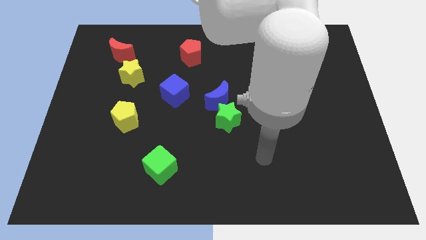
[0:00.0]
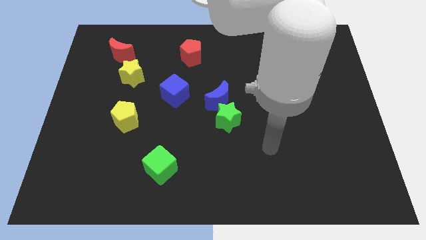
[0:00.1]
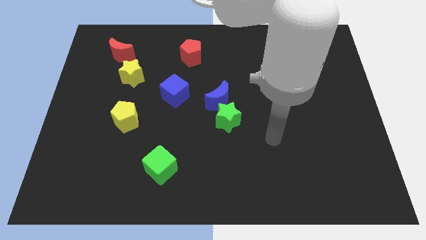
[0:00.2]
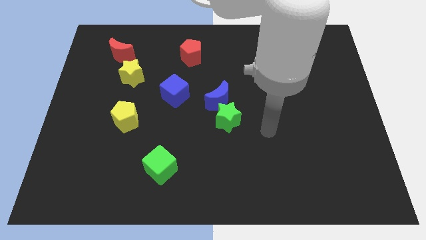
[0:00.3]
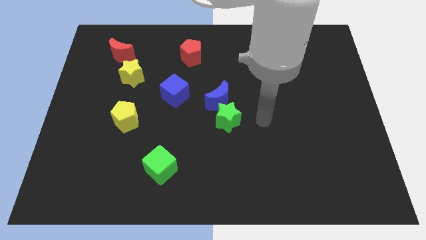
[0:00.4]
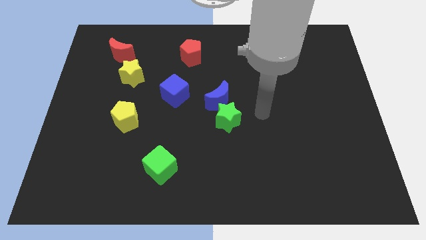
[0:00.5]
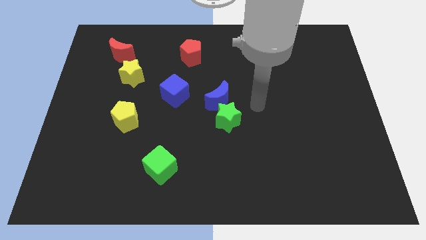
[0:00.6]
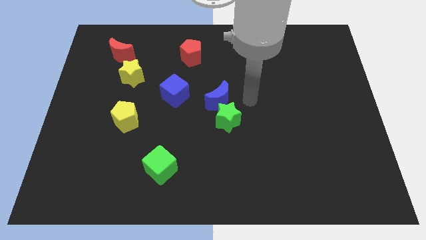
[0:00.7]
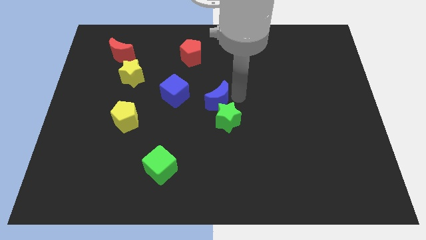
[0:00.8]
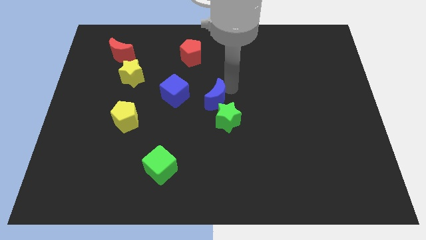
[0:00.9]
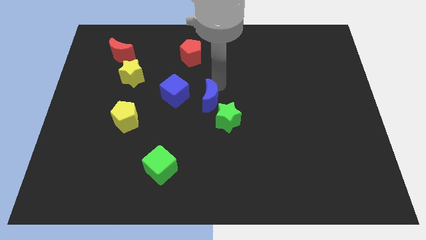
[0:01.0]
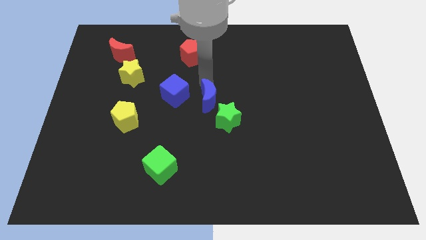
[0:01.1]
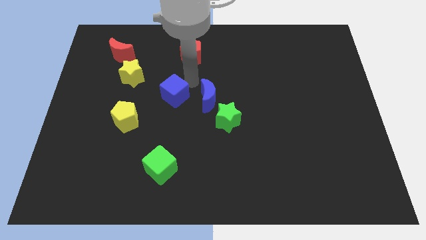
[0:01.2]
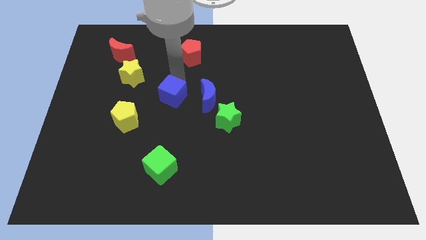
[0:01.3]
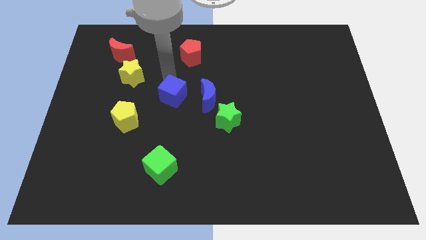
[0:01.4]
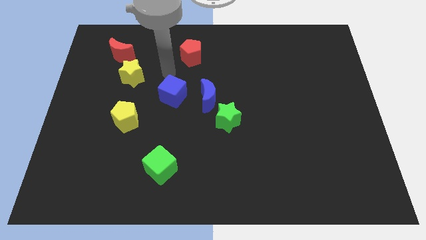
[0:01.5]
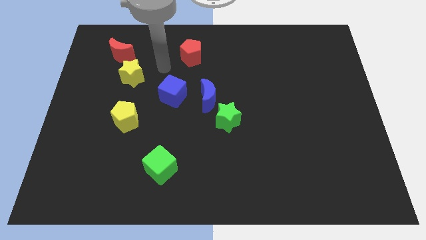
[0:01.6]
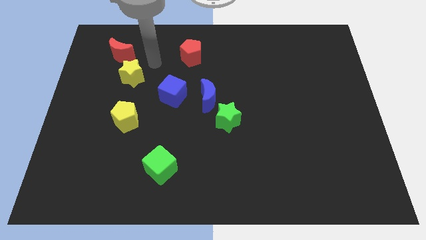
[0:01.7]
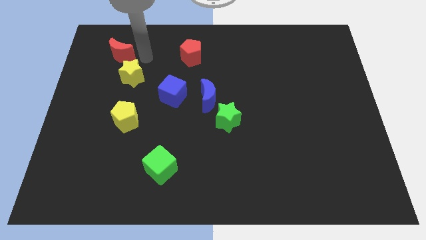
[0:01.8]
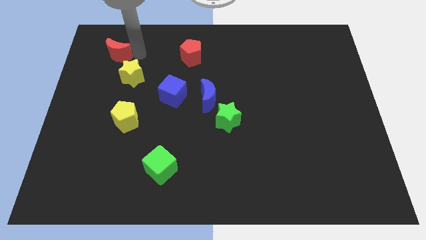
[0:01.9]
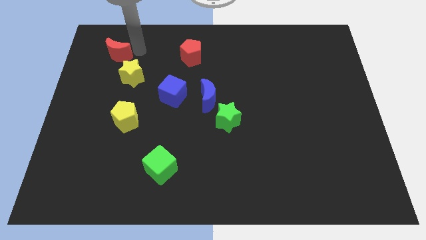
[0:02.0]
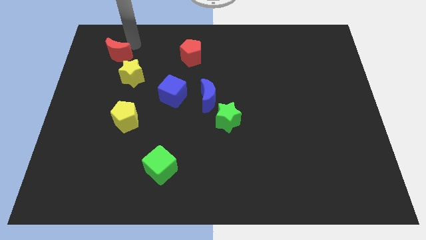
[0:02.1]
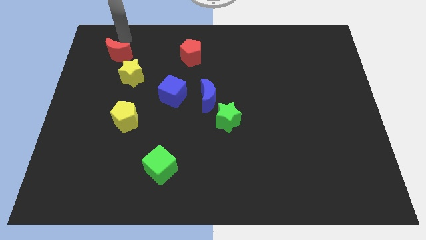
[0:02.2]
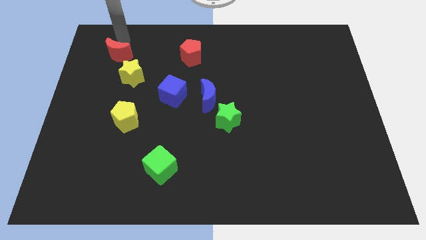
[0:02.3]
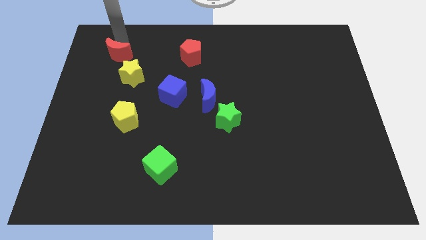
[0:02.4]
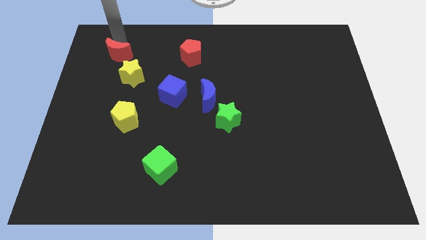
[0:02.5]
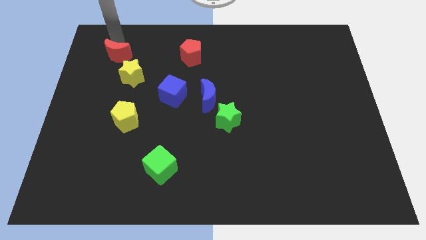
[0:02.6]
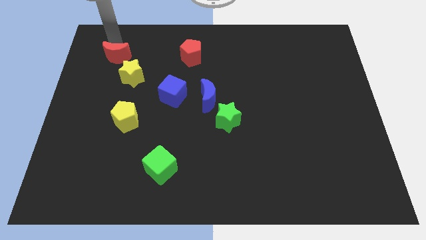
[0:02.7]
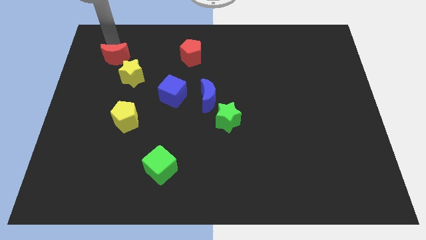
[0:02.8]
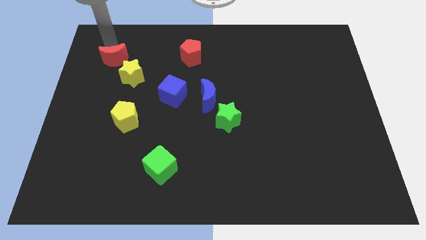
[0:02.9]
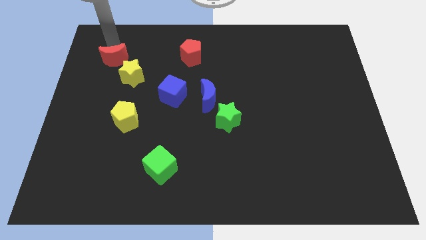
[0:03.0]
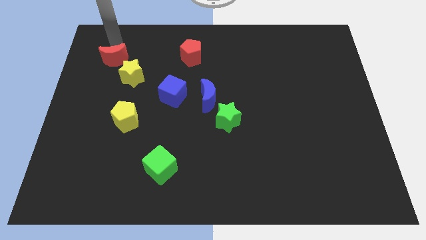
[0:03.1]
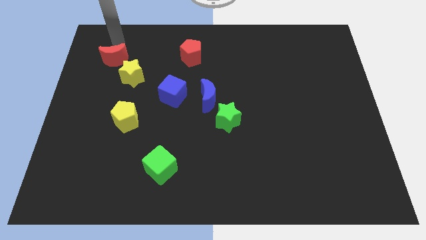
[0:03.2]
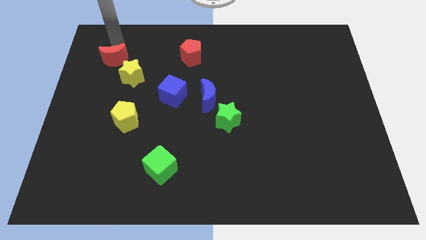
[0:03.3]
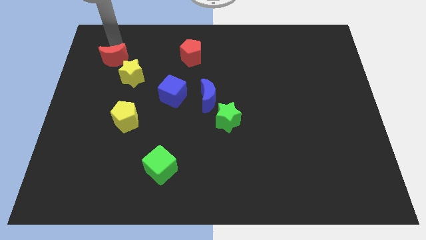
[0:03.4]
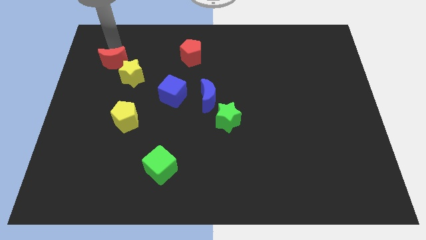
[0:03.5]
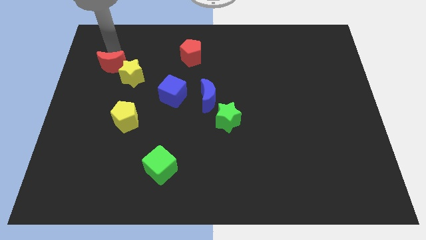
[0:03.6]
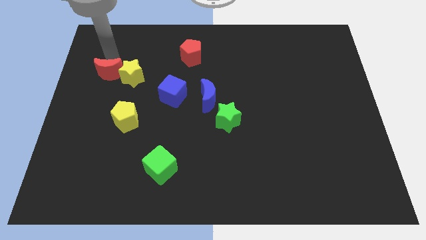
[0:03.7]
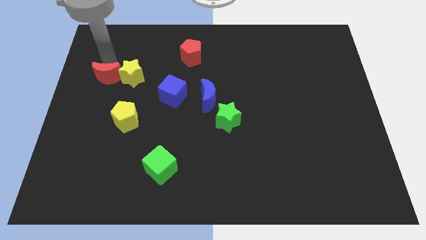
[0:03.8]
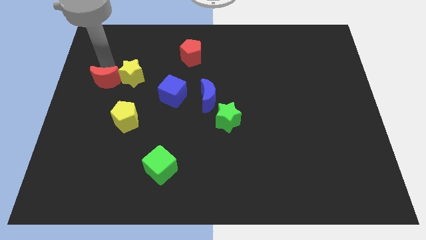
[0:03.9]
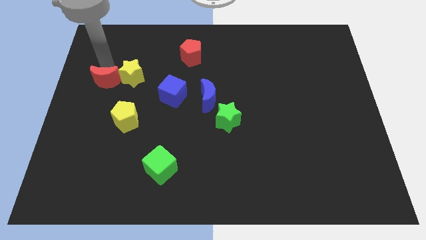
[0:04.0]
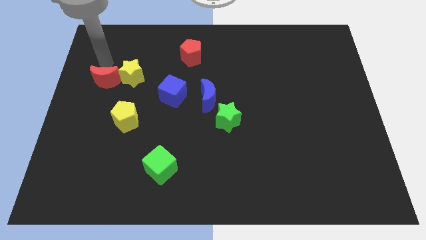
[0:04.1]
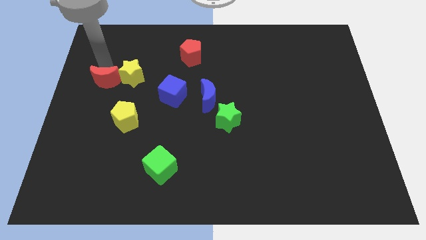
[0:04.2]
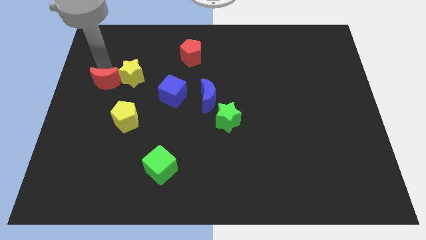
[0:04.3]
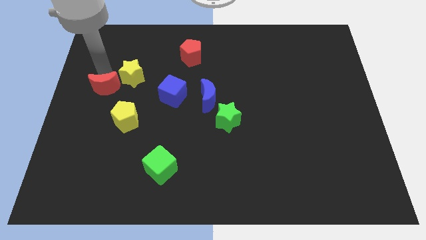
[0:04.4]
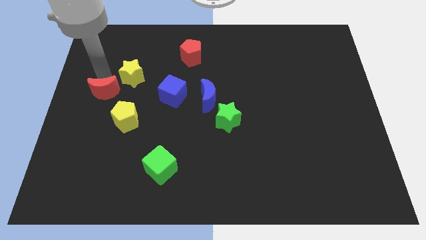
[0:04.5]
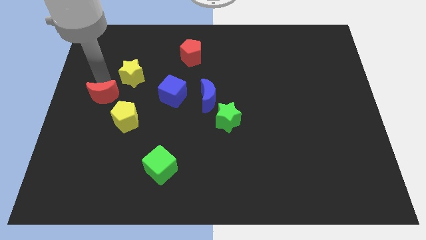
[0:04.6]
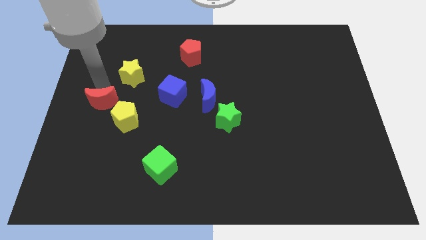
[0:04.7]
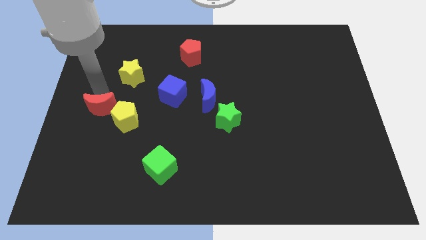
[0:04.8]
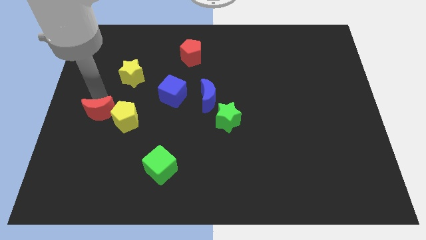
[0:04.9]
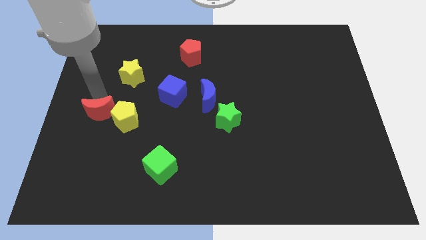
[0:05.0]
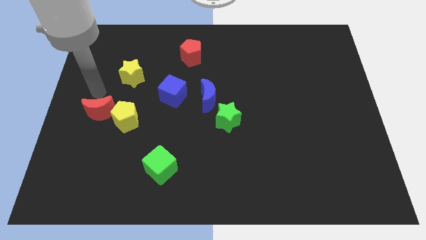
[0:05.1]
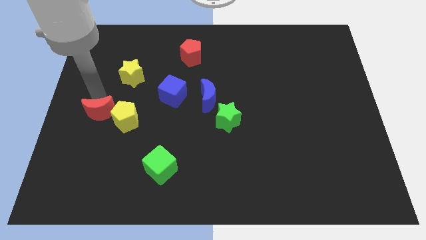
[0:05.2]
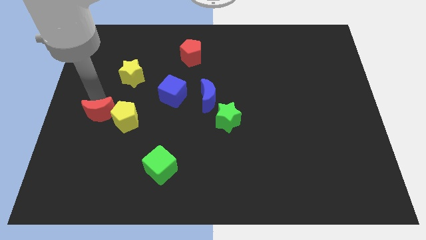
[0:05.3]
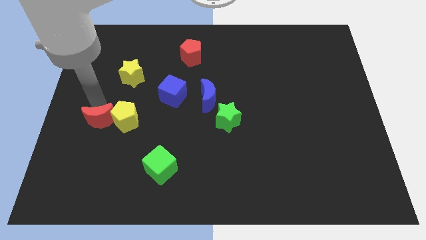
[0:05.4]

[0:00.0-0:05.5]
slide the red moon downwards

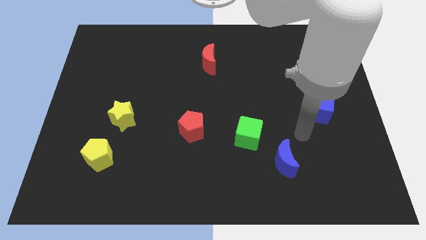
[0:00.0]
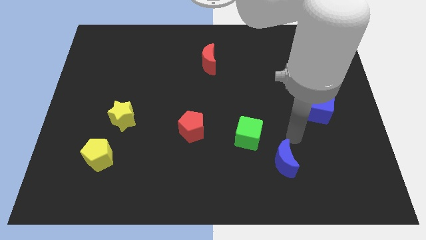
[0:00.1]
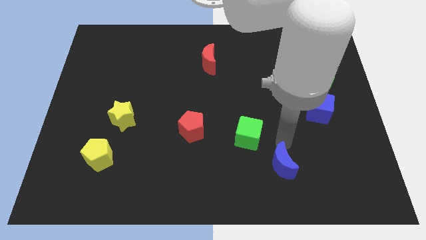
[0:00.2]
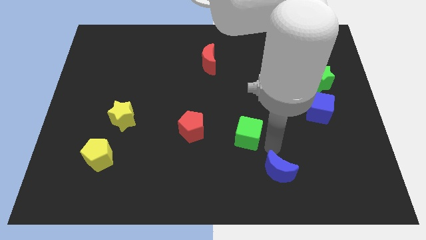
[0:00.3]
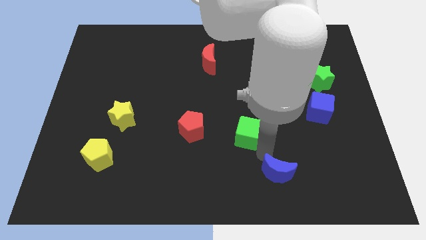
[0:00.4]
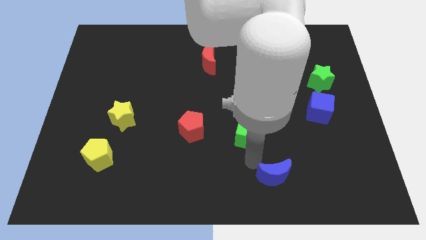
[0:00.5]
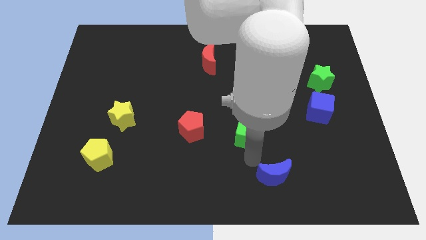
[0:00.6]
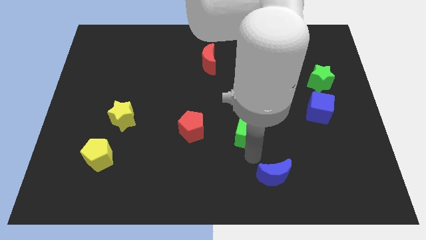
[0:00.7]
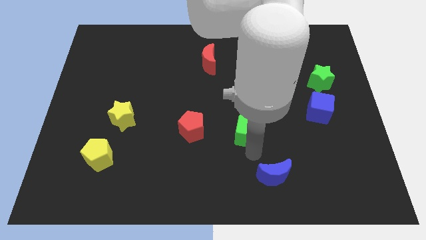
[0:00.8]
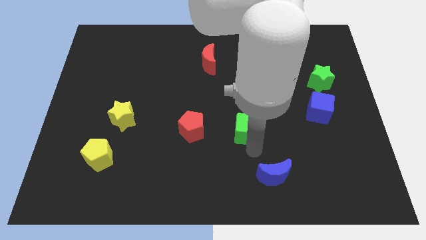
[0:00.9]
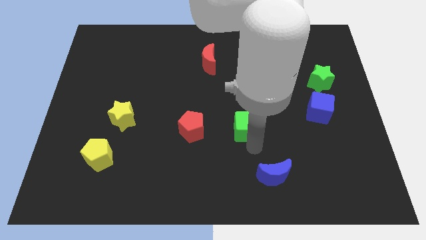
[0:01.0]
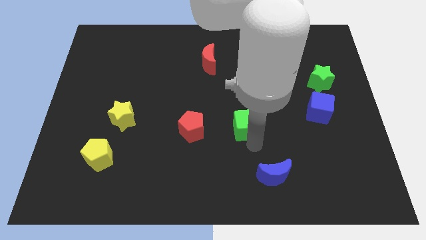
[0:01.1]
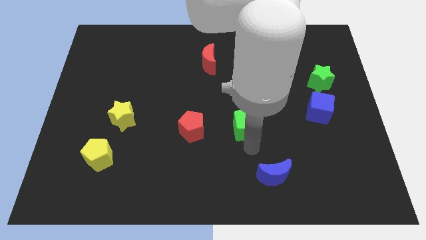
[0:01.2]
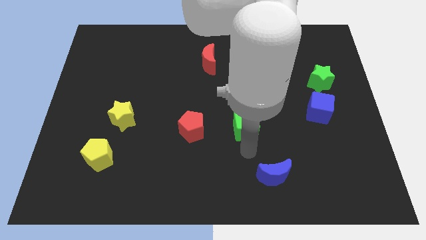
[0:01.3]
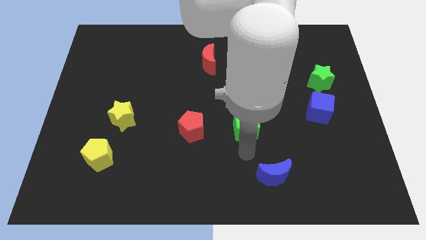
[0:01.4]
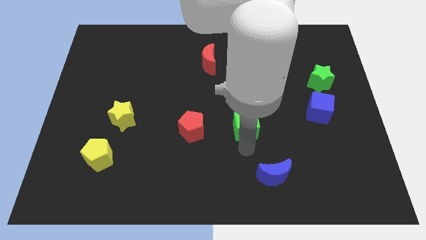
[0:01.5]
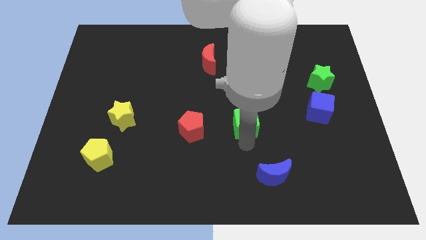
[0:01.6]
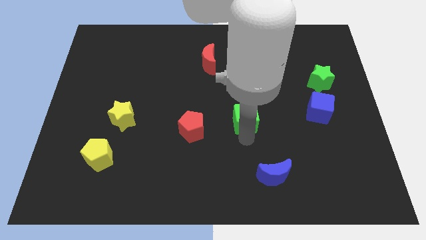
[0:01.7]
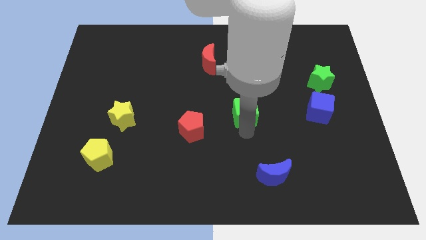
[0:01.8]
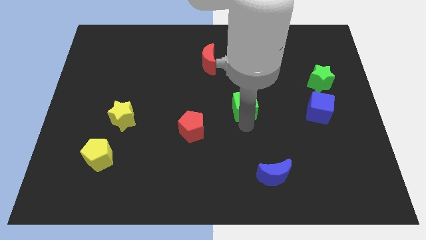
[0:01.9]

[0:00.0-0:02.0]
move the green cube a little upwards

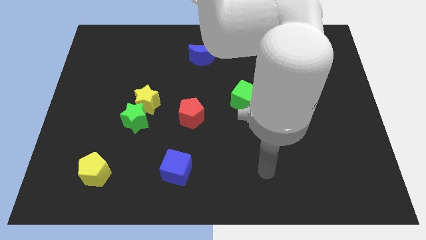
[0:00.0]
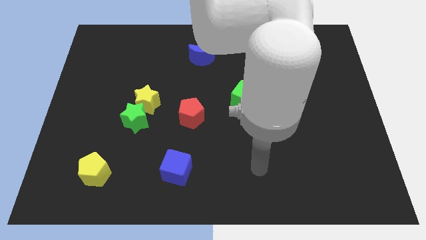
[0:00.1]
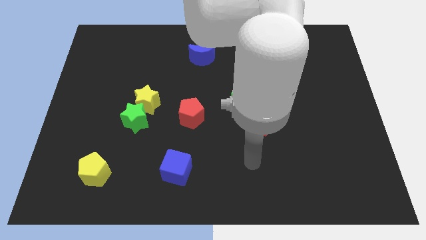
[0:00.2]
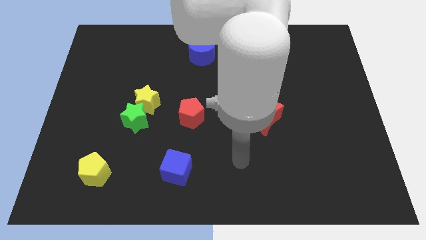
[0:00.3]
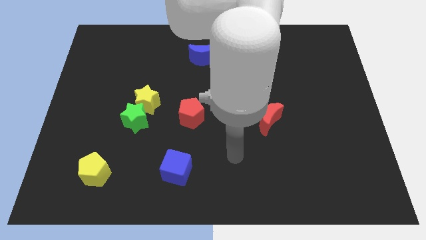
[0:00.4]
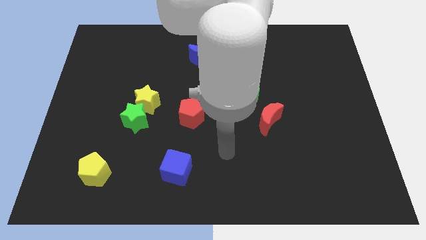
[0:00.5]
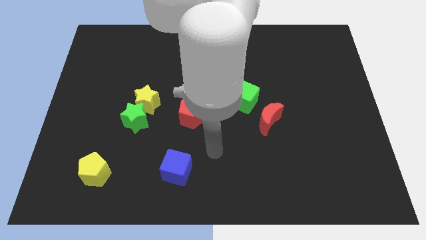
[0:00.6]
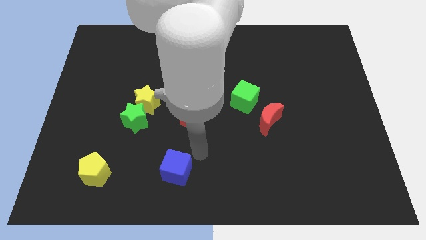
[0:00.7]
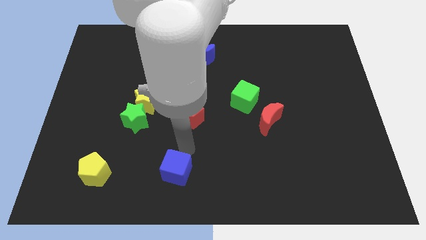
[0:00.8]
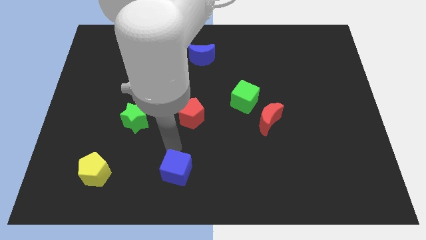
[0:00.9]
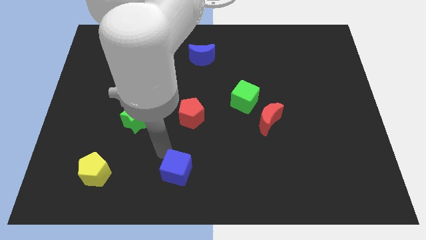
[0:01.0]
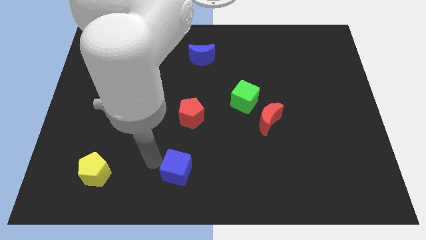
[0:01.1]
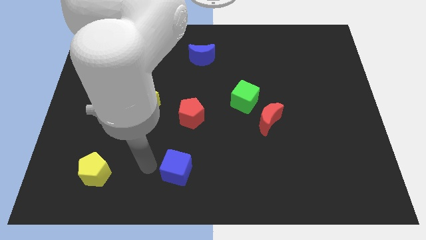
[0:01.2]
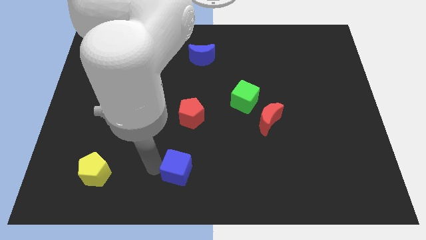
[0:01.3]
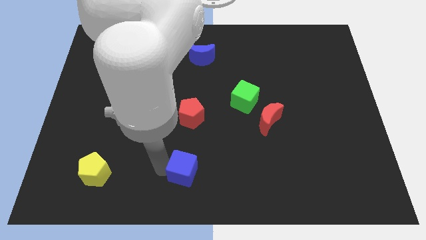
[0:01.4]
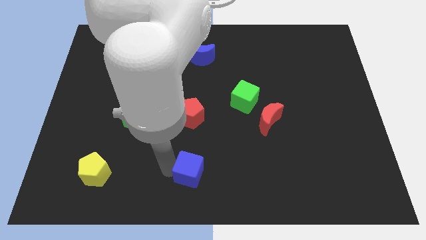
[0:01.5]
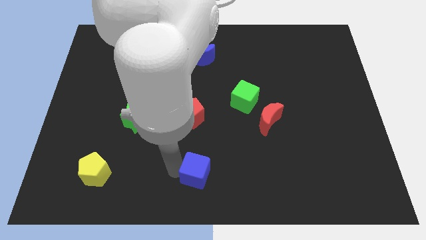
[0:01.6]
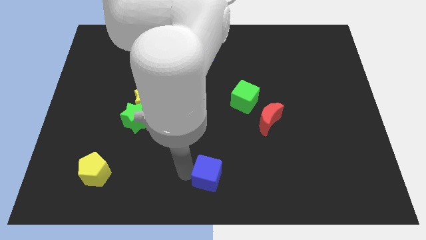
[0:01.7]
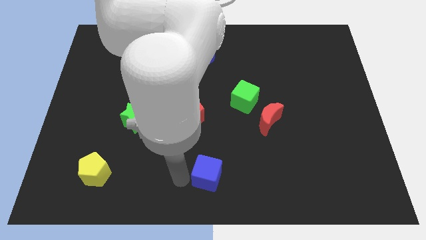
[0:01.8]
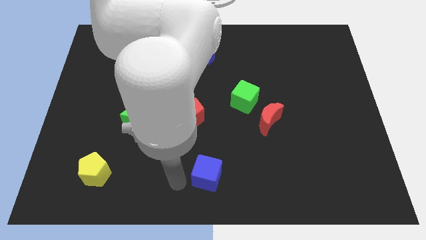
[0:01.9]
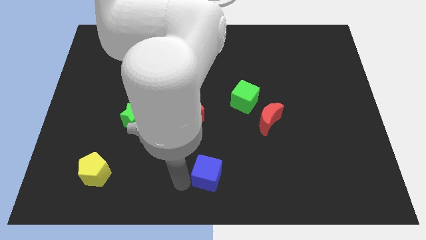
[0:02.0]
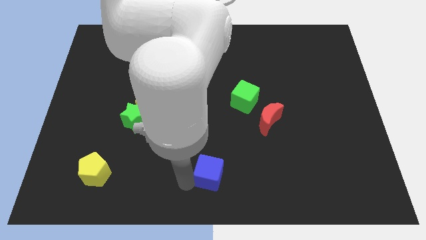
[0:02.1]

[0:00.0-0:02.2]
slightly push the blue cube to the right
